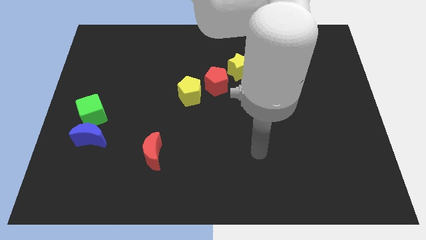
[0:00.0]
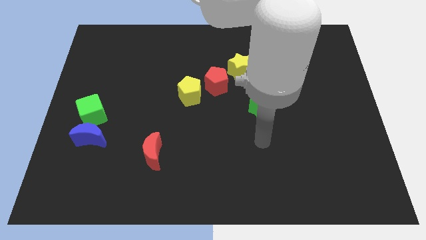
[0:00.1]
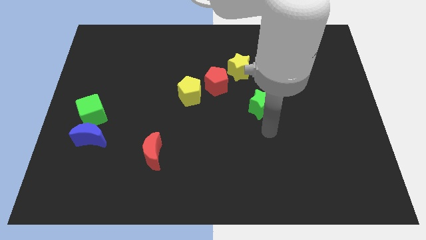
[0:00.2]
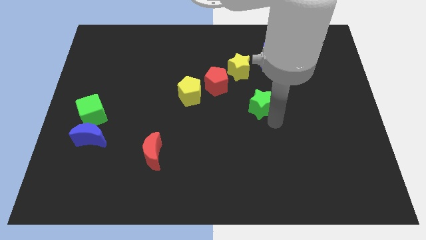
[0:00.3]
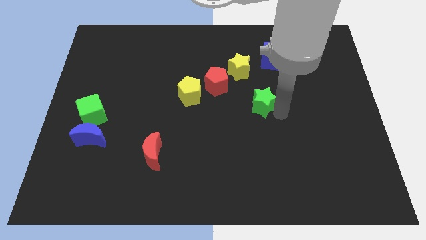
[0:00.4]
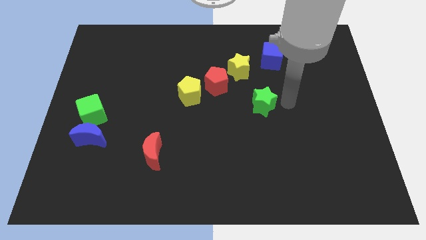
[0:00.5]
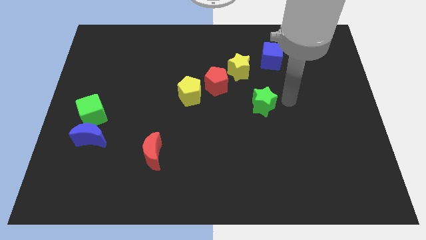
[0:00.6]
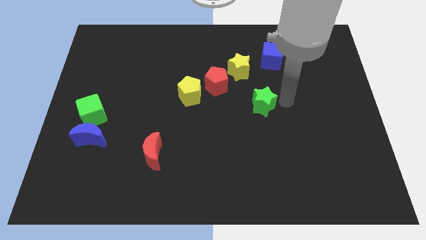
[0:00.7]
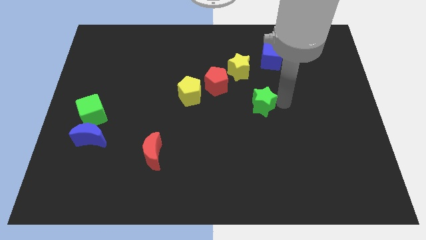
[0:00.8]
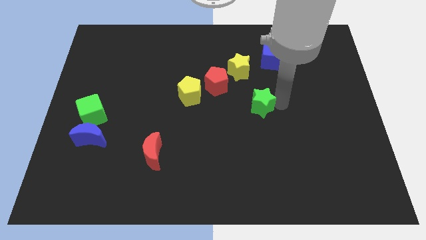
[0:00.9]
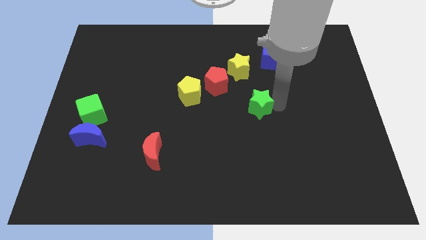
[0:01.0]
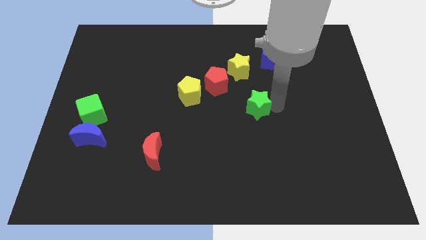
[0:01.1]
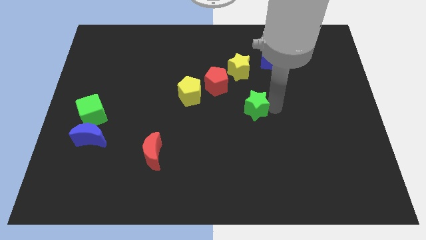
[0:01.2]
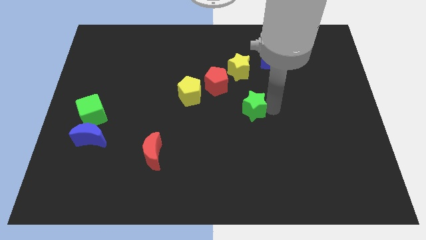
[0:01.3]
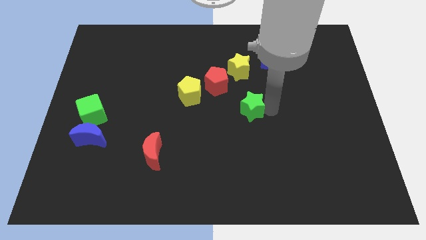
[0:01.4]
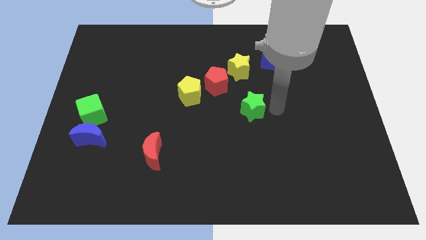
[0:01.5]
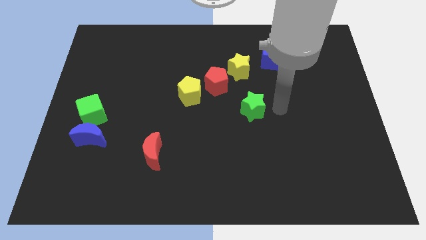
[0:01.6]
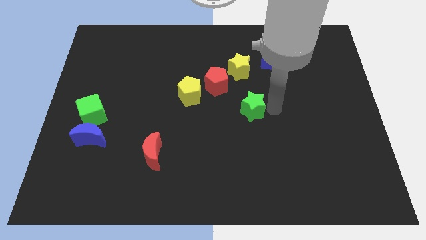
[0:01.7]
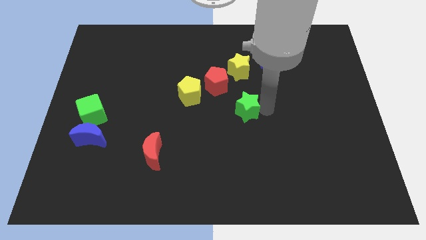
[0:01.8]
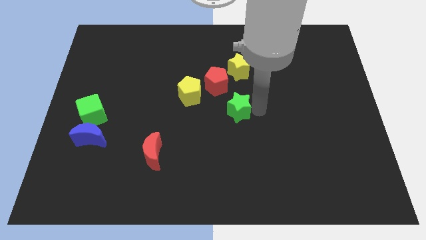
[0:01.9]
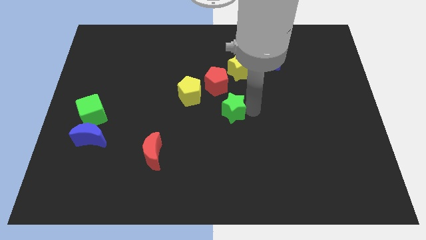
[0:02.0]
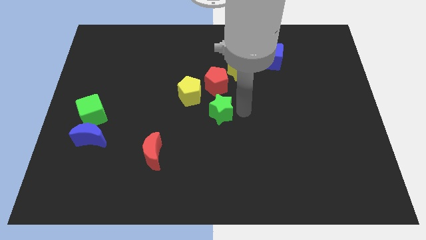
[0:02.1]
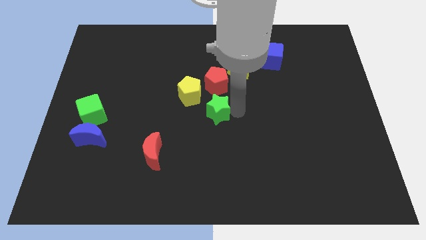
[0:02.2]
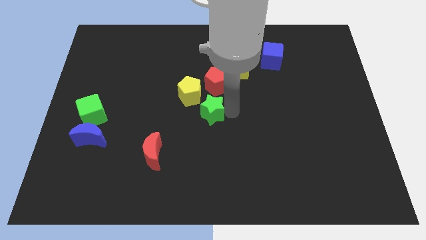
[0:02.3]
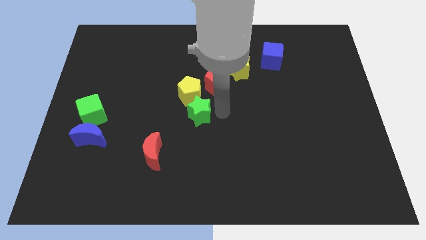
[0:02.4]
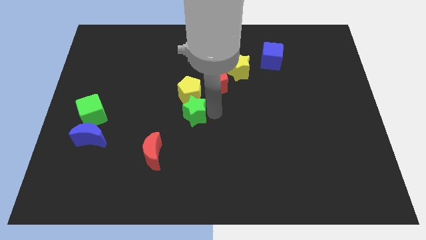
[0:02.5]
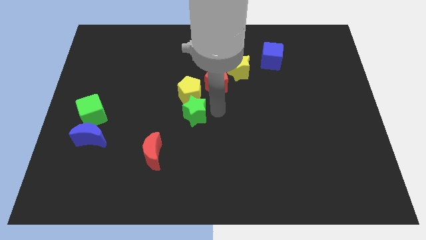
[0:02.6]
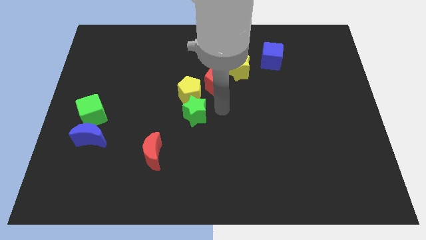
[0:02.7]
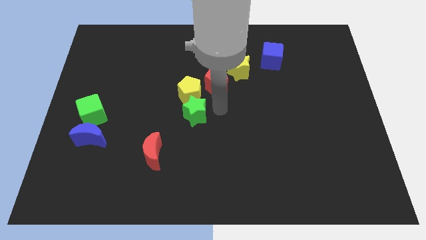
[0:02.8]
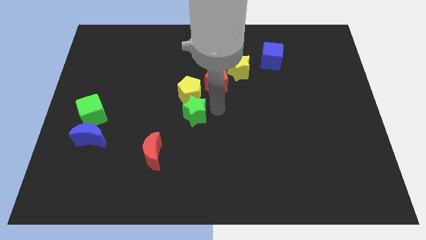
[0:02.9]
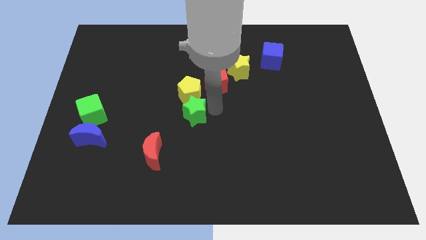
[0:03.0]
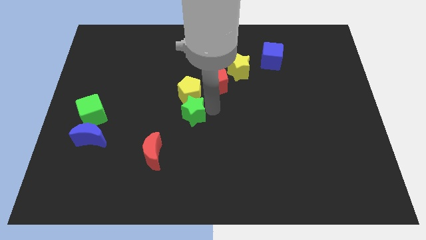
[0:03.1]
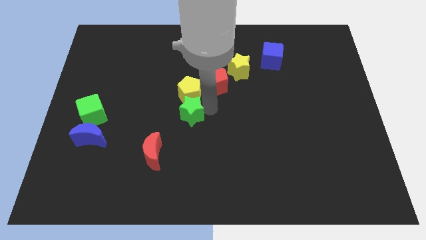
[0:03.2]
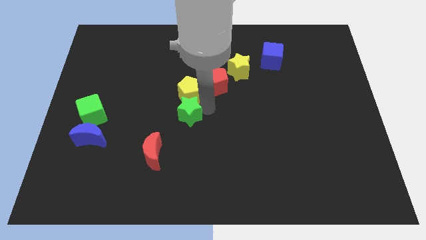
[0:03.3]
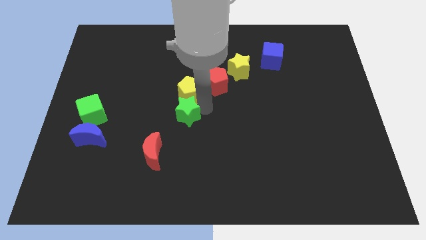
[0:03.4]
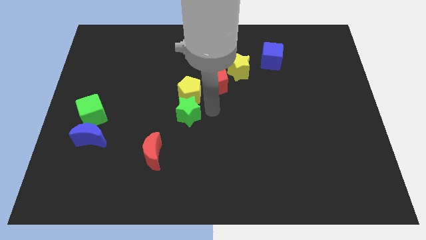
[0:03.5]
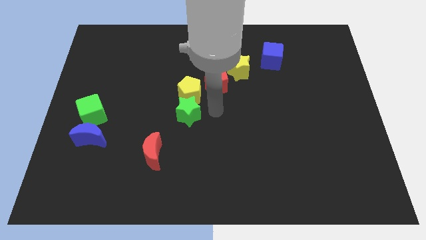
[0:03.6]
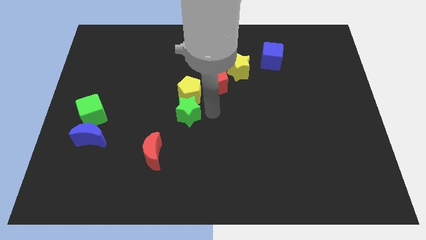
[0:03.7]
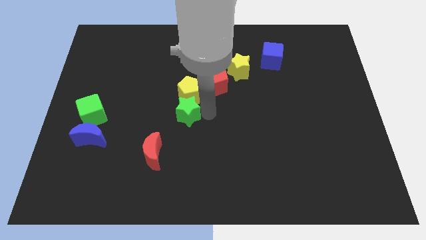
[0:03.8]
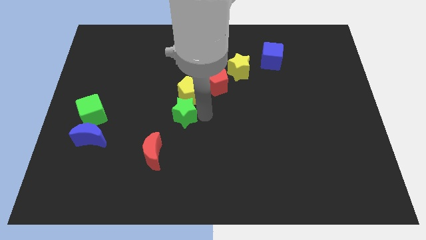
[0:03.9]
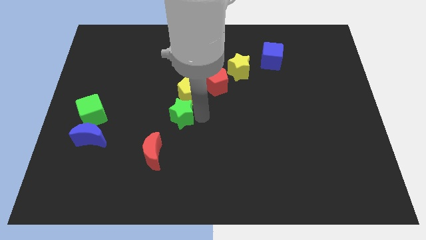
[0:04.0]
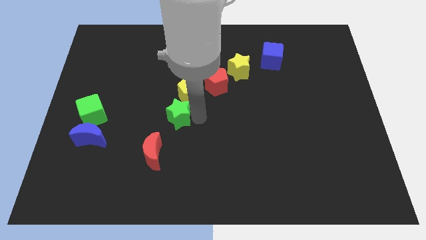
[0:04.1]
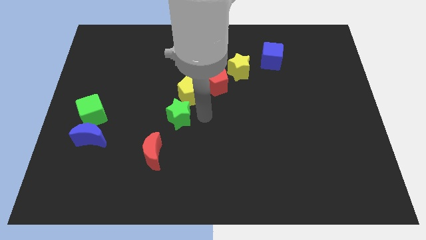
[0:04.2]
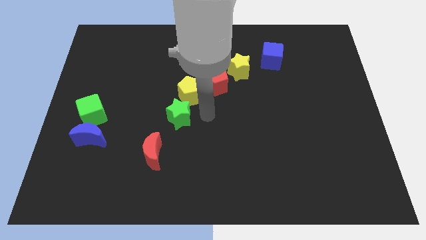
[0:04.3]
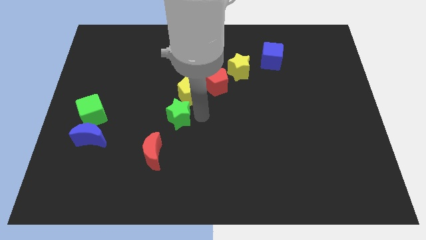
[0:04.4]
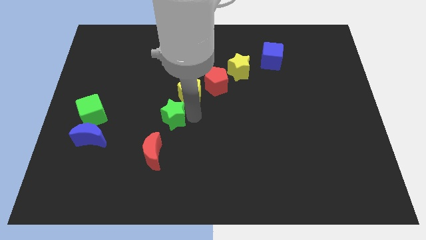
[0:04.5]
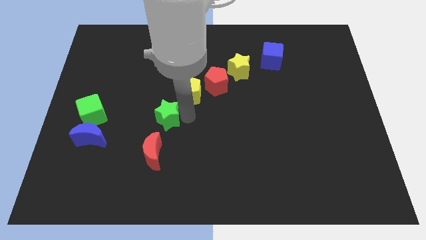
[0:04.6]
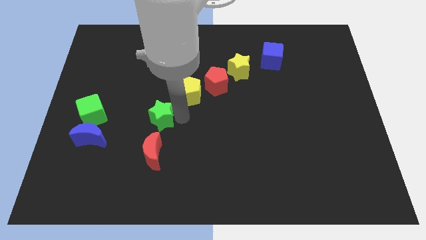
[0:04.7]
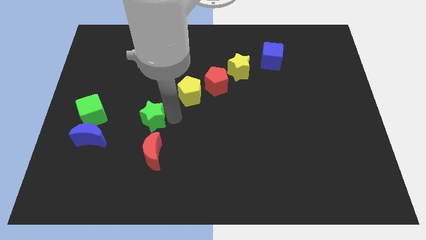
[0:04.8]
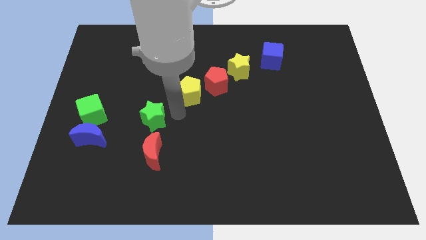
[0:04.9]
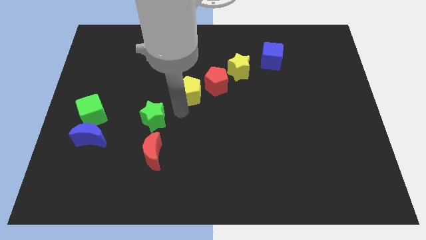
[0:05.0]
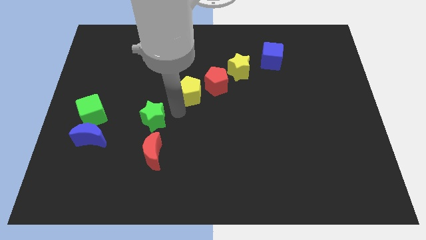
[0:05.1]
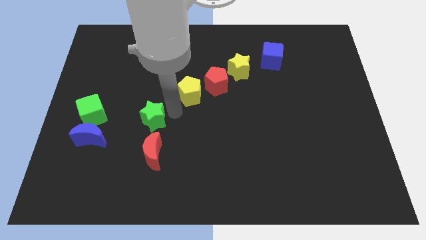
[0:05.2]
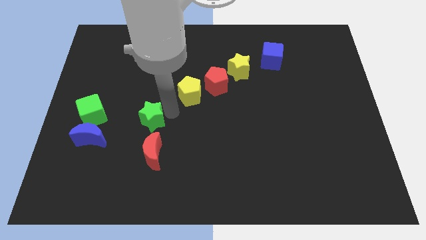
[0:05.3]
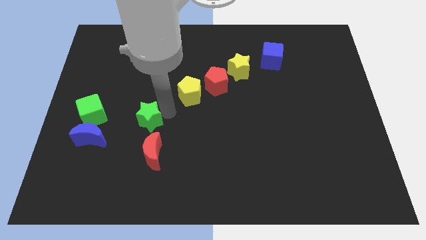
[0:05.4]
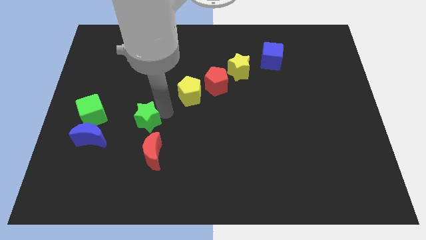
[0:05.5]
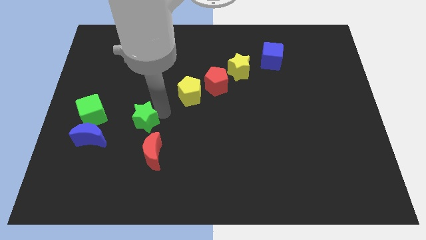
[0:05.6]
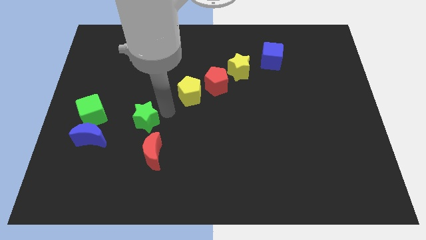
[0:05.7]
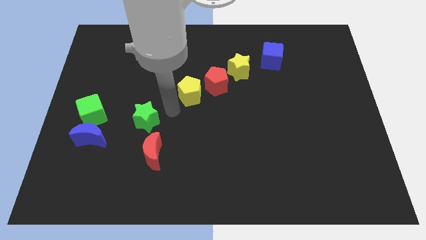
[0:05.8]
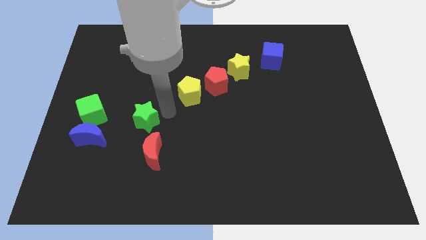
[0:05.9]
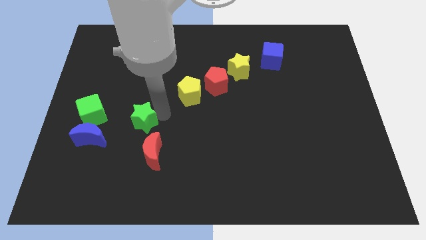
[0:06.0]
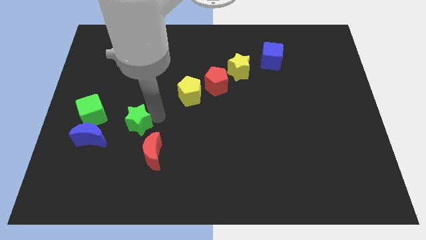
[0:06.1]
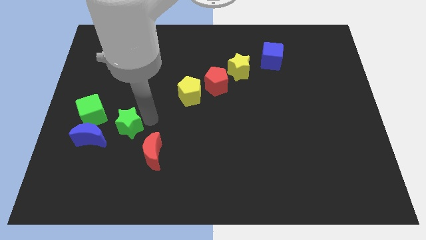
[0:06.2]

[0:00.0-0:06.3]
put the green star to the bottom right of the green cube
